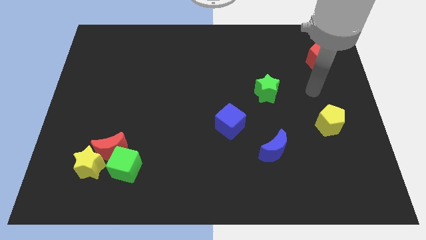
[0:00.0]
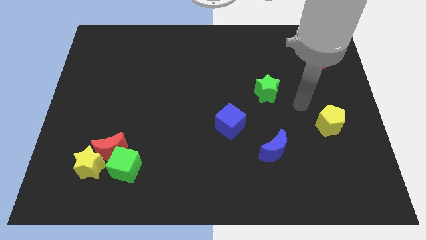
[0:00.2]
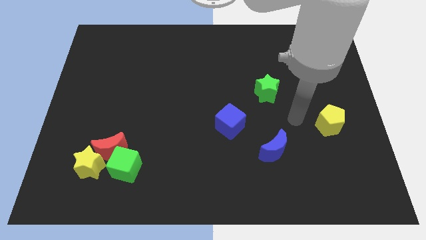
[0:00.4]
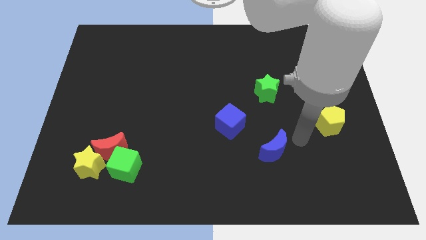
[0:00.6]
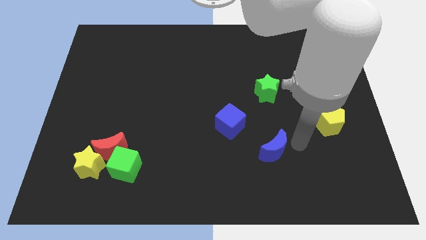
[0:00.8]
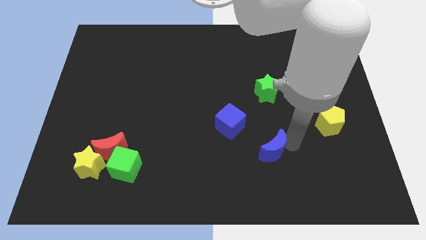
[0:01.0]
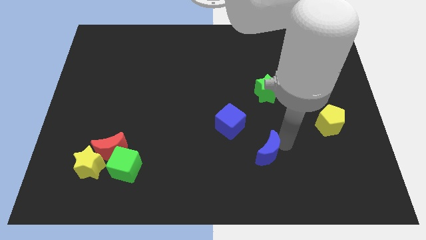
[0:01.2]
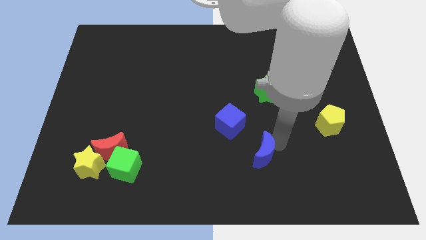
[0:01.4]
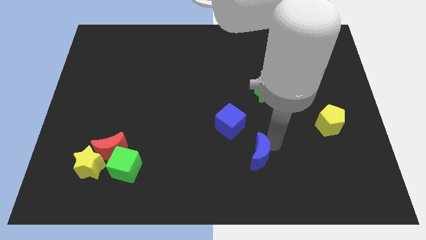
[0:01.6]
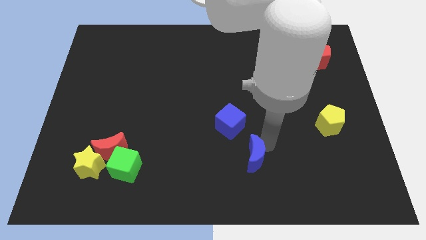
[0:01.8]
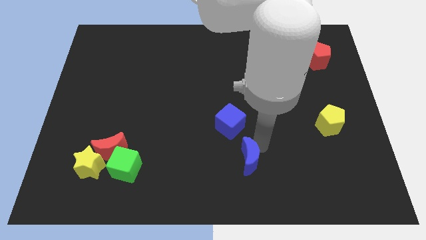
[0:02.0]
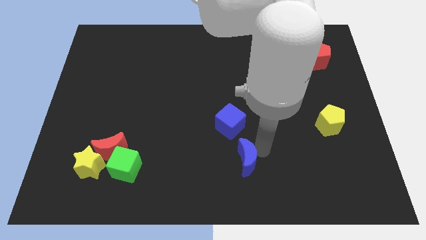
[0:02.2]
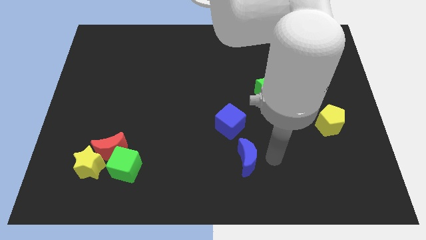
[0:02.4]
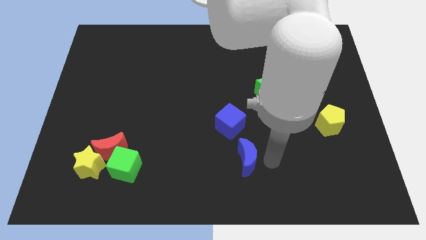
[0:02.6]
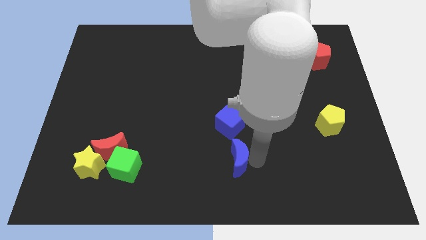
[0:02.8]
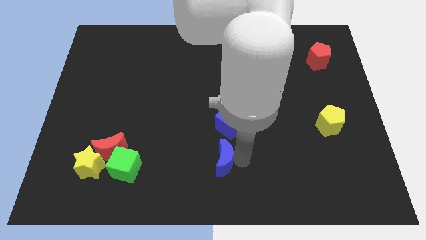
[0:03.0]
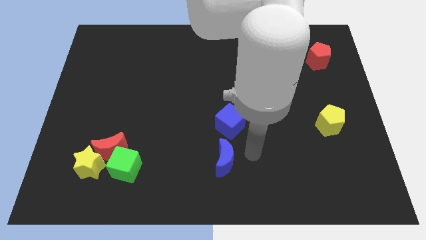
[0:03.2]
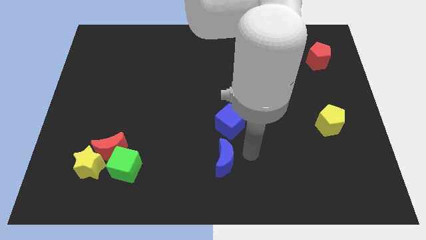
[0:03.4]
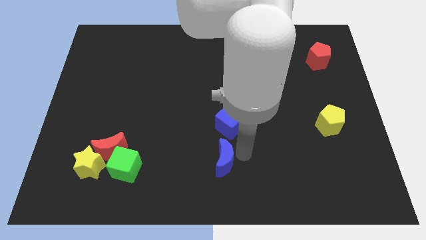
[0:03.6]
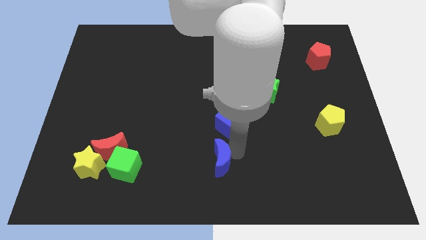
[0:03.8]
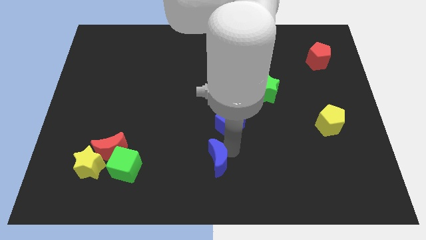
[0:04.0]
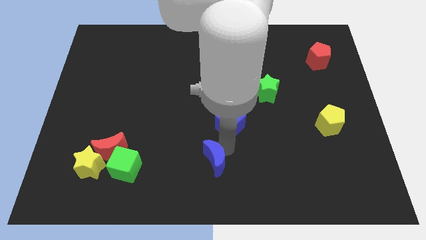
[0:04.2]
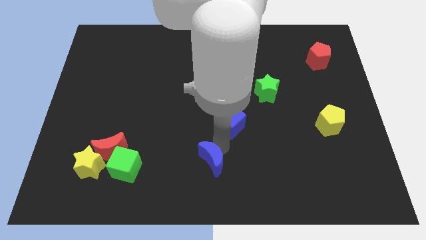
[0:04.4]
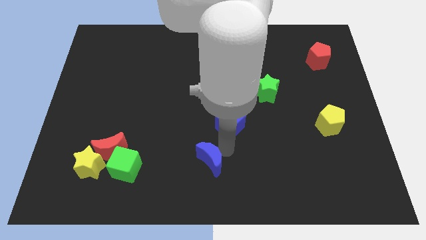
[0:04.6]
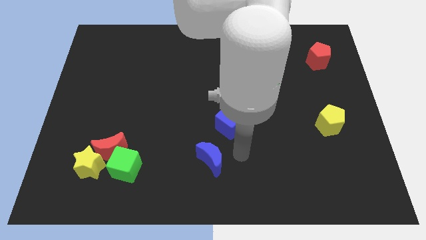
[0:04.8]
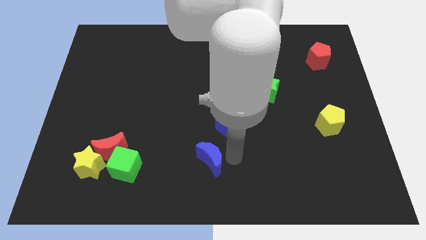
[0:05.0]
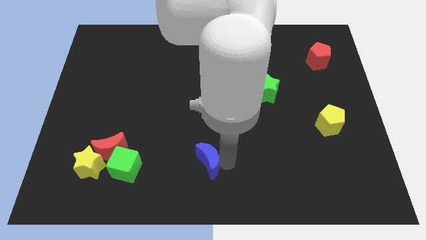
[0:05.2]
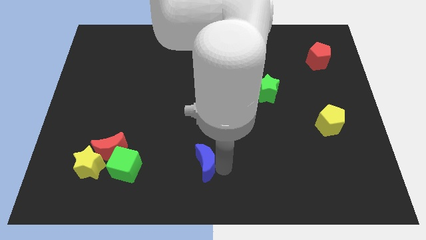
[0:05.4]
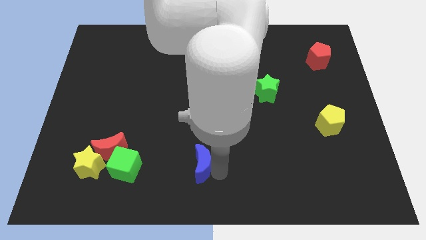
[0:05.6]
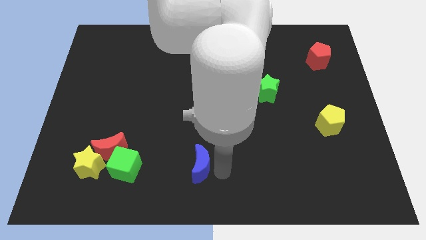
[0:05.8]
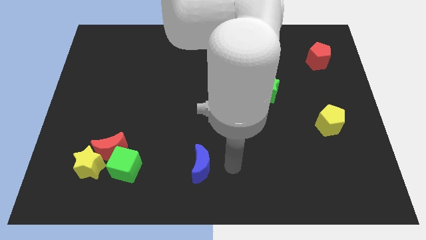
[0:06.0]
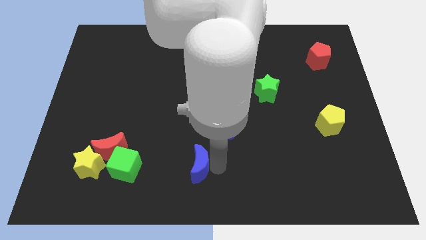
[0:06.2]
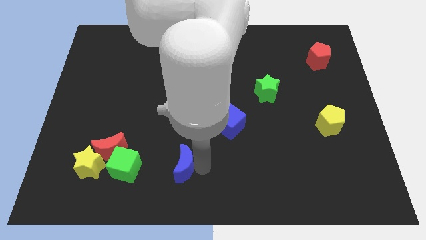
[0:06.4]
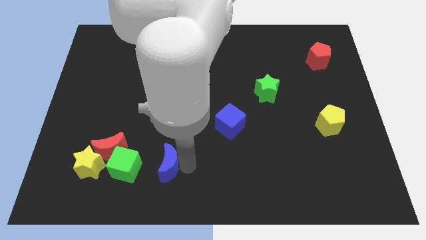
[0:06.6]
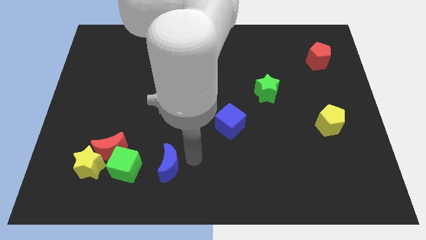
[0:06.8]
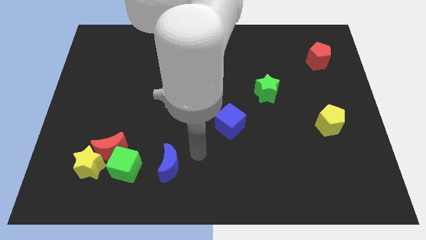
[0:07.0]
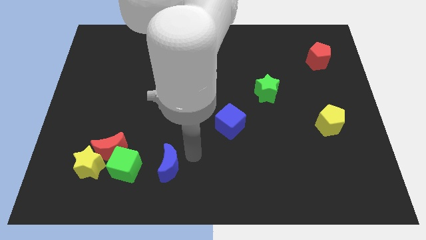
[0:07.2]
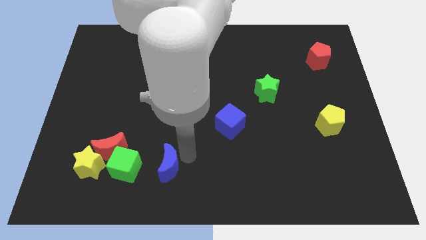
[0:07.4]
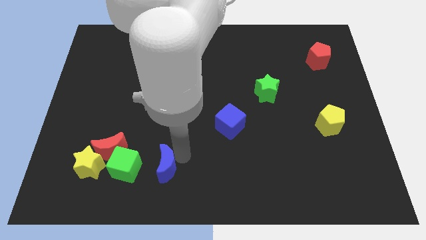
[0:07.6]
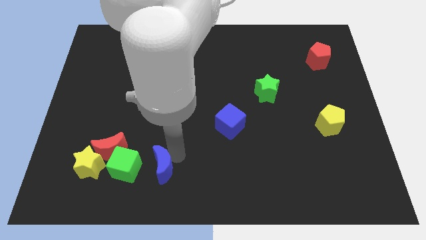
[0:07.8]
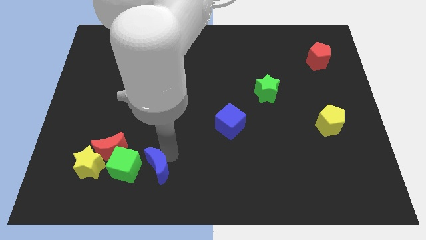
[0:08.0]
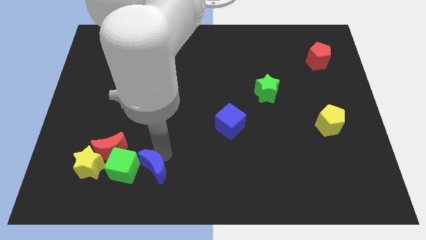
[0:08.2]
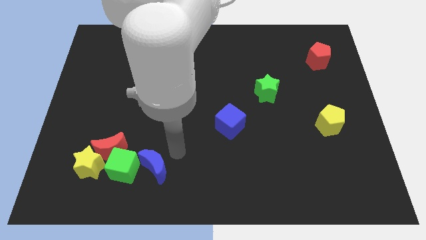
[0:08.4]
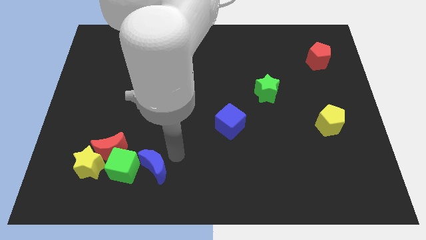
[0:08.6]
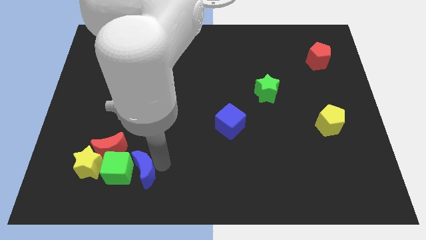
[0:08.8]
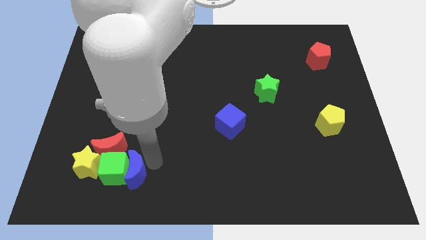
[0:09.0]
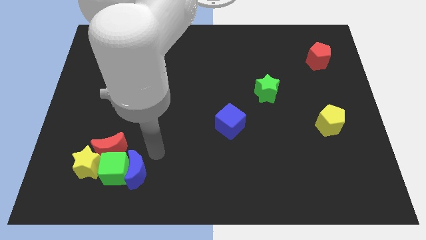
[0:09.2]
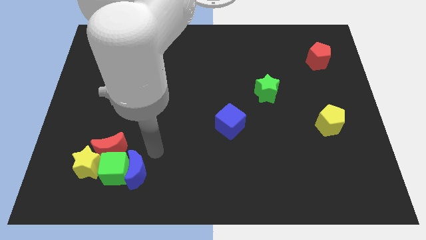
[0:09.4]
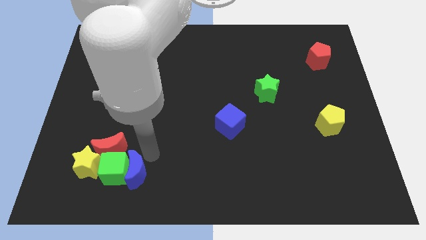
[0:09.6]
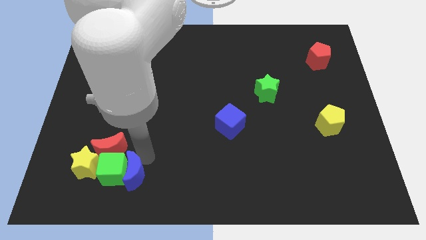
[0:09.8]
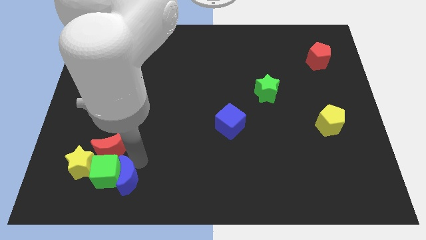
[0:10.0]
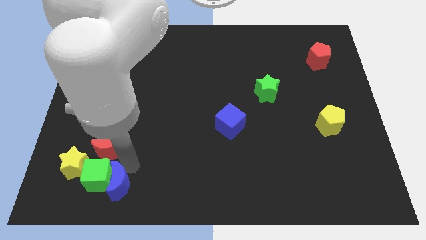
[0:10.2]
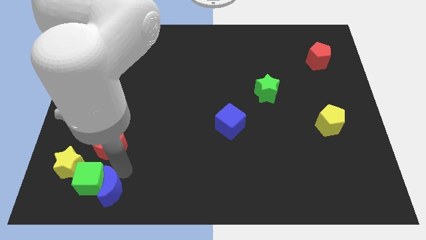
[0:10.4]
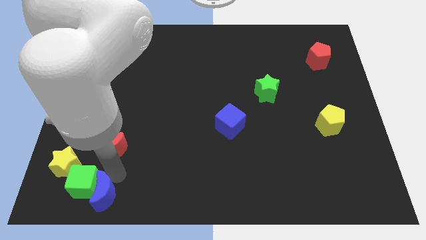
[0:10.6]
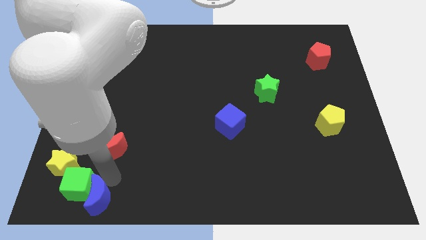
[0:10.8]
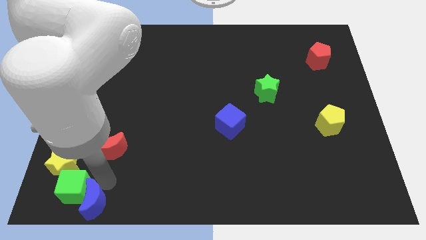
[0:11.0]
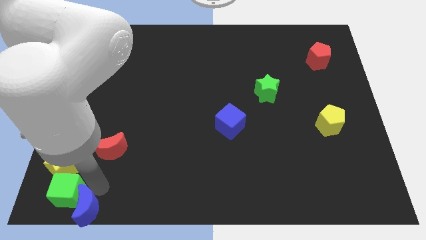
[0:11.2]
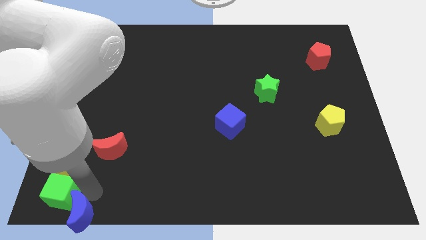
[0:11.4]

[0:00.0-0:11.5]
put the blue moon to the bottom left
